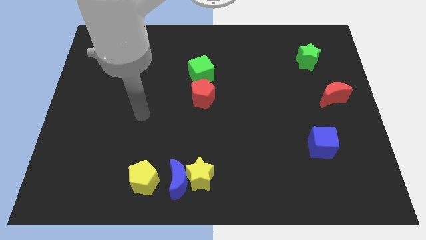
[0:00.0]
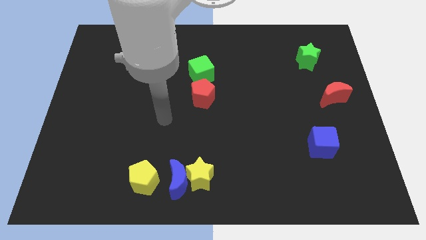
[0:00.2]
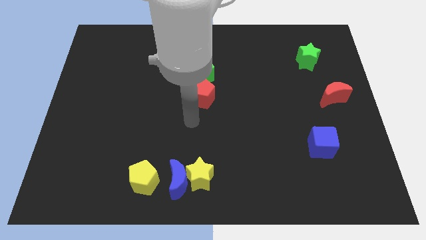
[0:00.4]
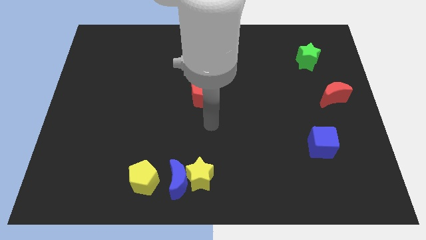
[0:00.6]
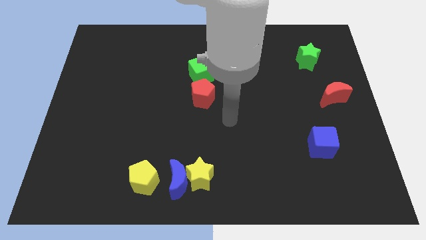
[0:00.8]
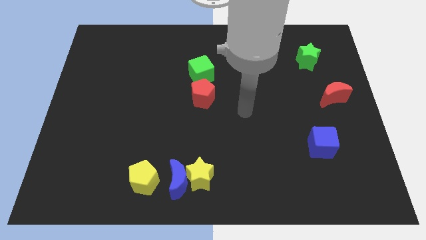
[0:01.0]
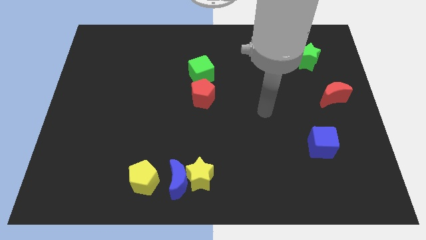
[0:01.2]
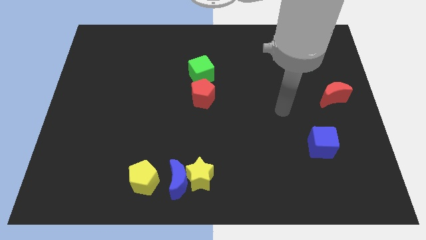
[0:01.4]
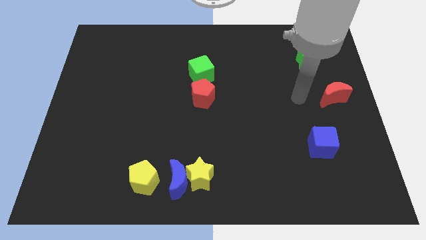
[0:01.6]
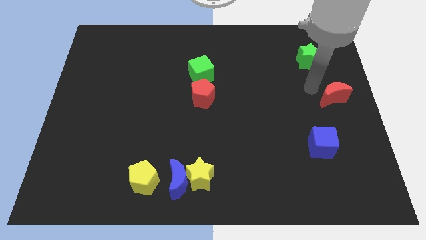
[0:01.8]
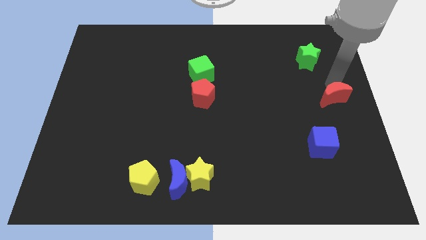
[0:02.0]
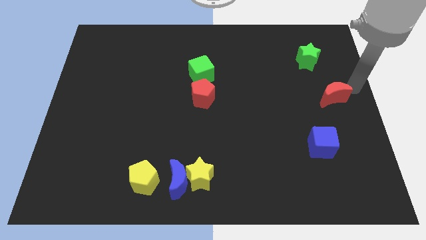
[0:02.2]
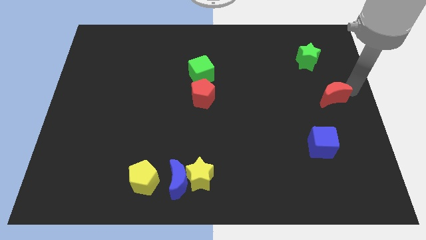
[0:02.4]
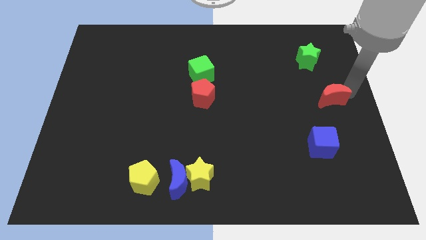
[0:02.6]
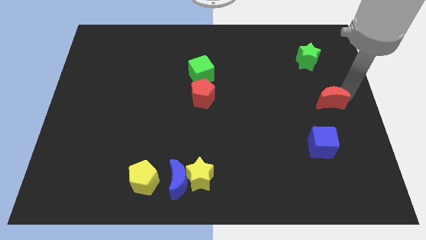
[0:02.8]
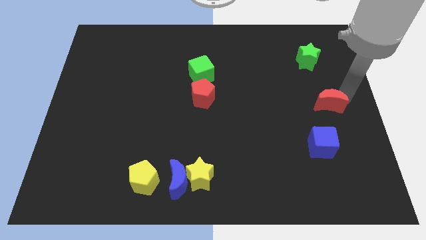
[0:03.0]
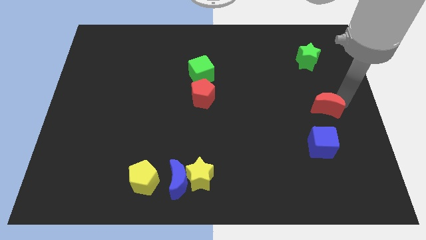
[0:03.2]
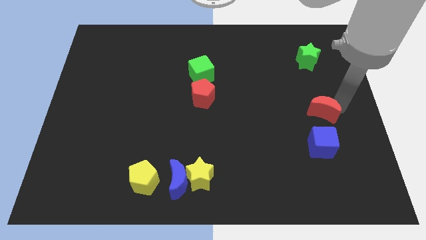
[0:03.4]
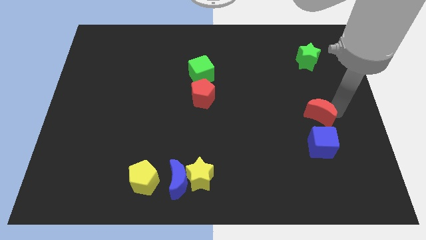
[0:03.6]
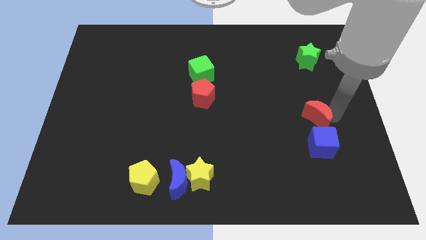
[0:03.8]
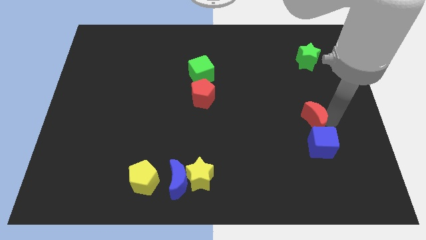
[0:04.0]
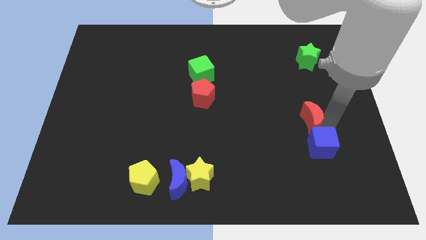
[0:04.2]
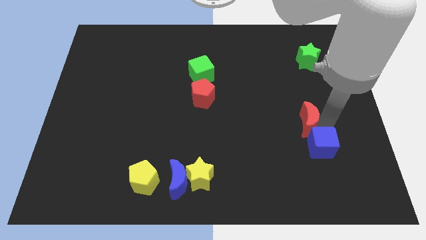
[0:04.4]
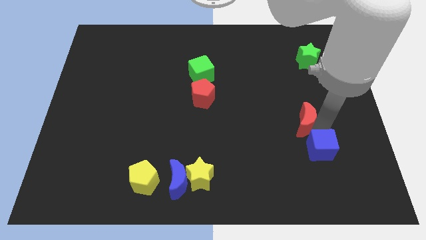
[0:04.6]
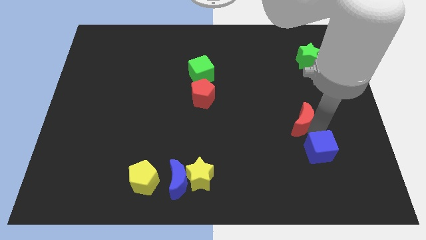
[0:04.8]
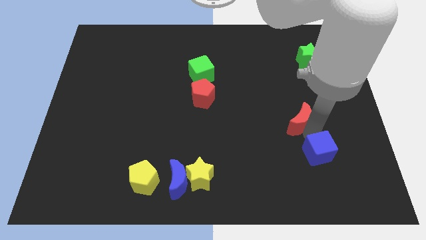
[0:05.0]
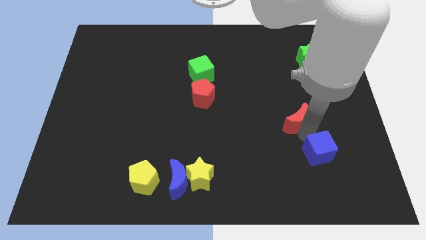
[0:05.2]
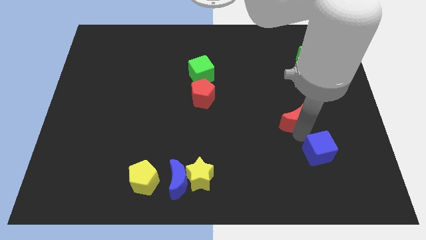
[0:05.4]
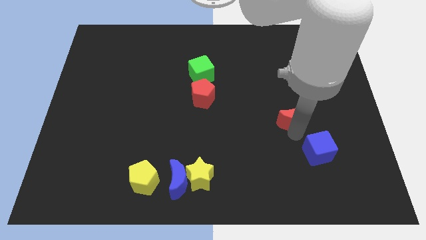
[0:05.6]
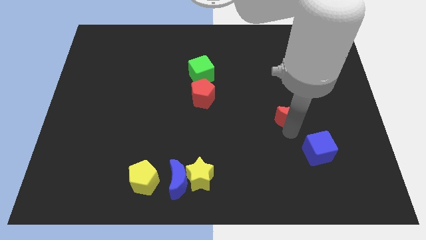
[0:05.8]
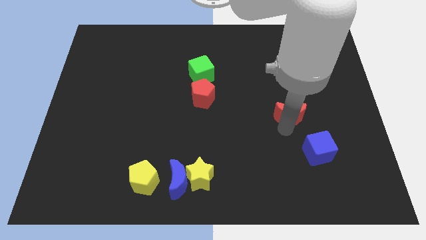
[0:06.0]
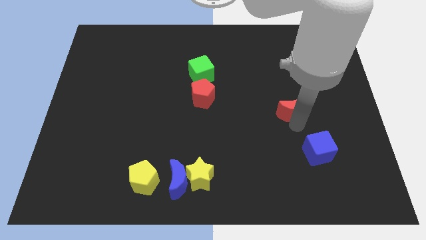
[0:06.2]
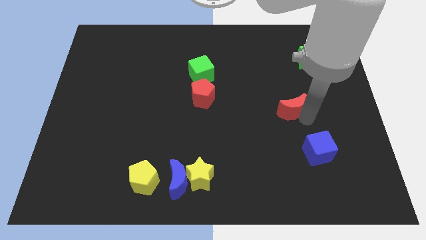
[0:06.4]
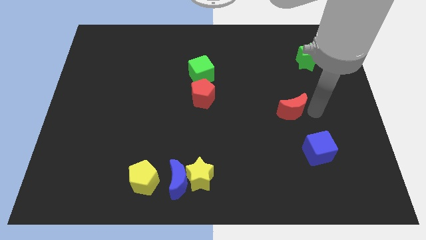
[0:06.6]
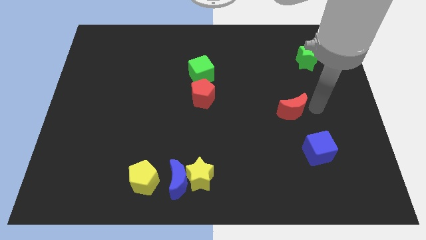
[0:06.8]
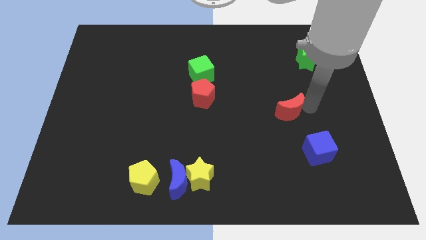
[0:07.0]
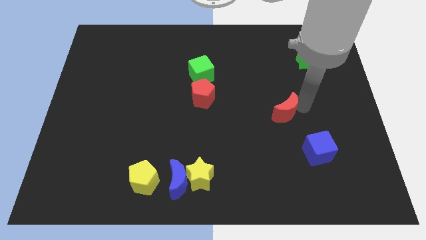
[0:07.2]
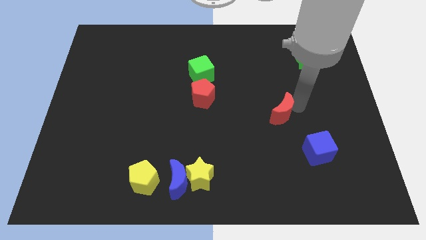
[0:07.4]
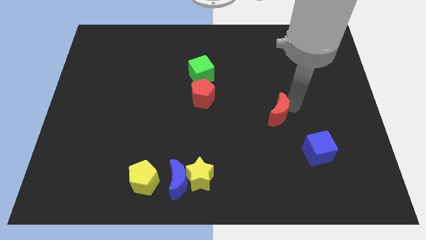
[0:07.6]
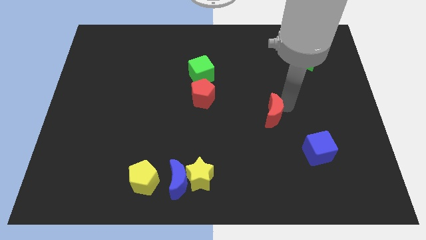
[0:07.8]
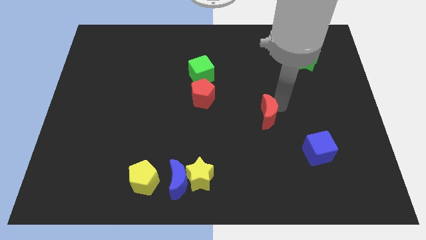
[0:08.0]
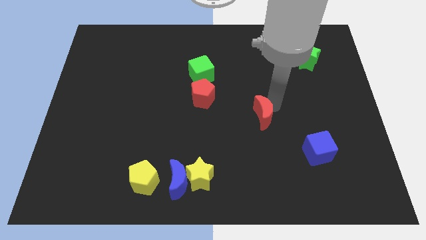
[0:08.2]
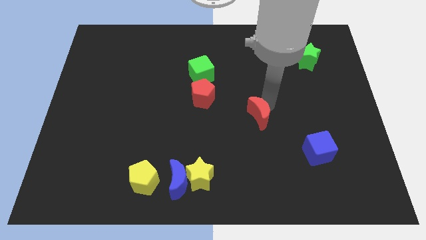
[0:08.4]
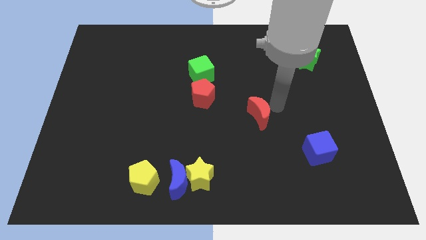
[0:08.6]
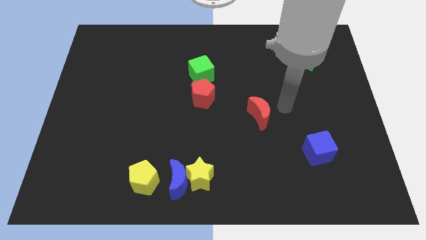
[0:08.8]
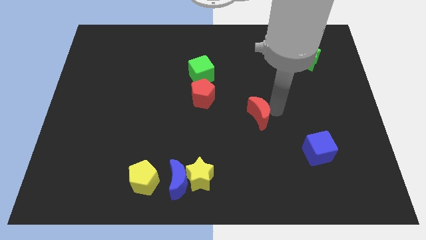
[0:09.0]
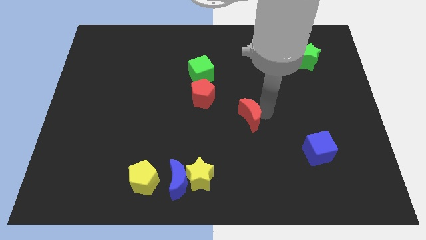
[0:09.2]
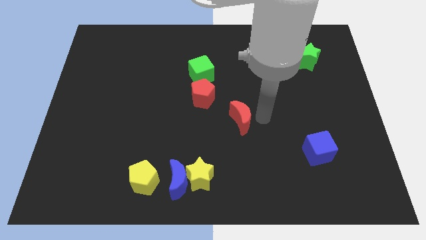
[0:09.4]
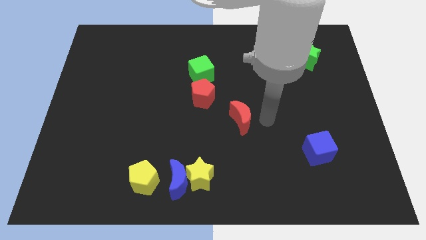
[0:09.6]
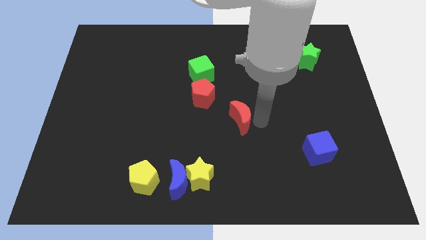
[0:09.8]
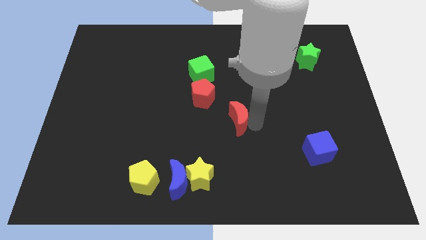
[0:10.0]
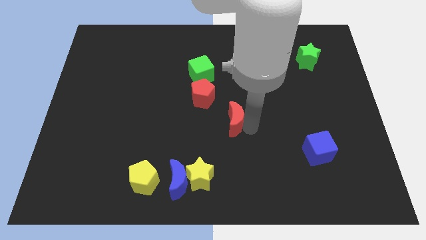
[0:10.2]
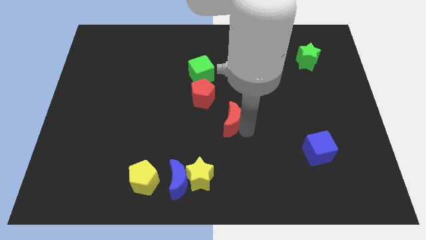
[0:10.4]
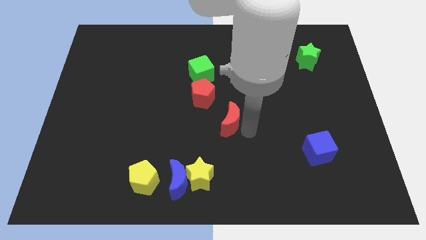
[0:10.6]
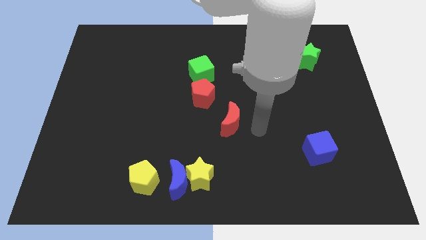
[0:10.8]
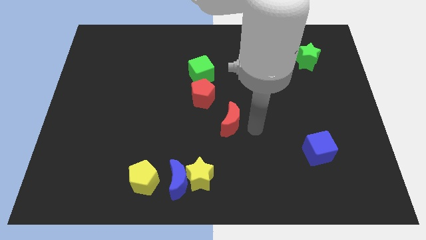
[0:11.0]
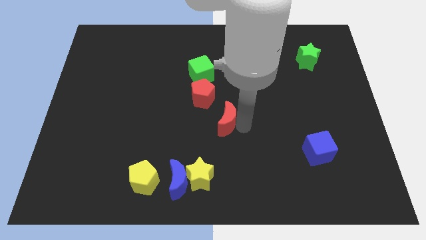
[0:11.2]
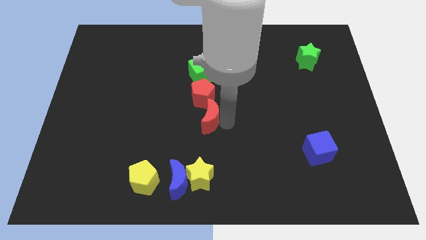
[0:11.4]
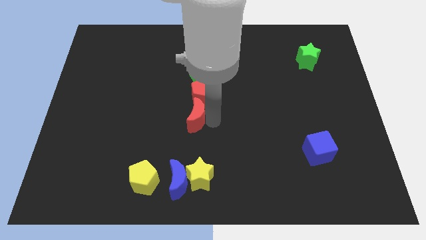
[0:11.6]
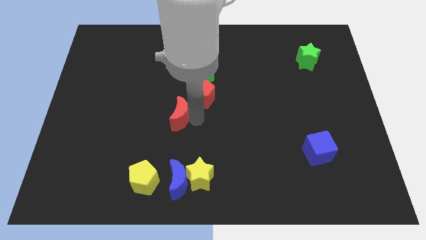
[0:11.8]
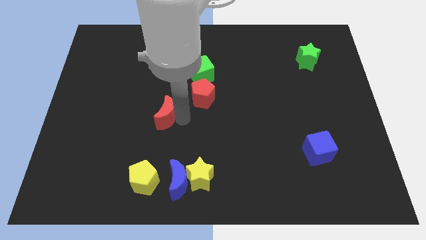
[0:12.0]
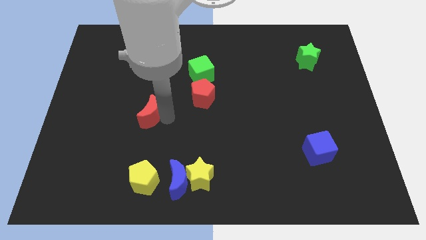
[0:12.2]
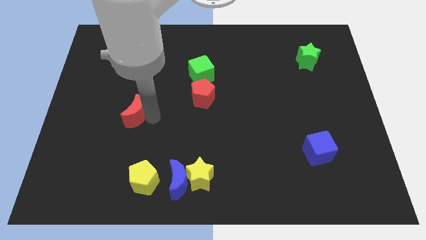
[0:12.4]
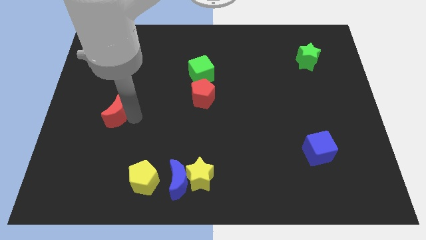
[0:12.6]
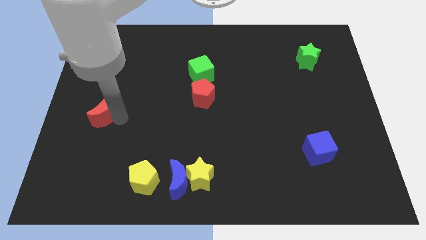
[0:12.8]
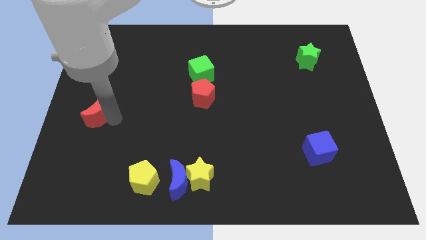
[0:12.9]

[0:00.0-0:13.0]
slide the red moon to the left side of the board
